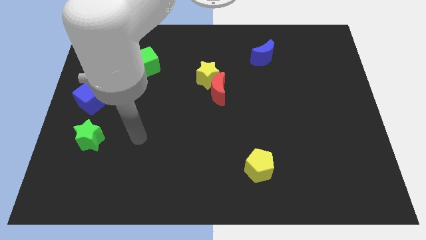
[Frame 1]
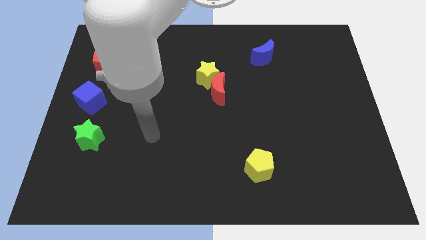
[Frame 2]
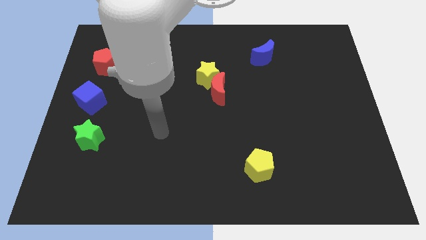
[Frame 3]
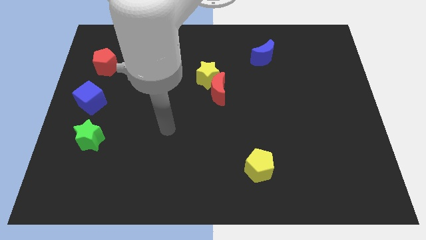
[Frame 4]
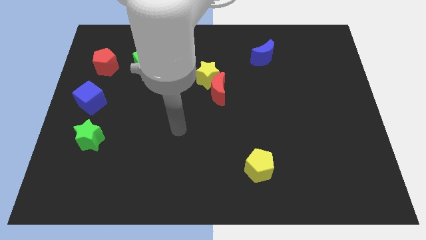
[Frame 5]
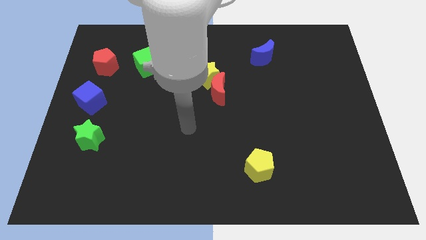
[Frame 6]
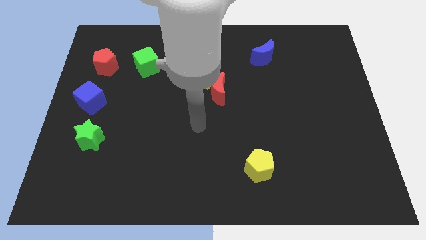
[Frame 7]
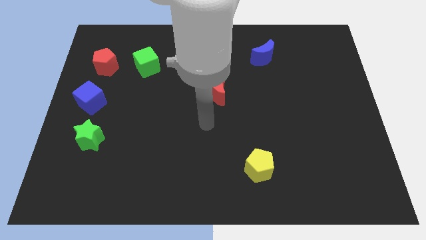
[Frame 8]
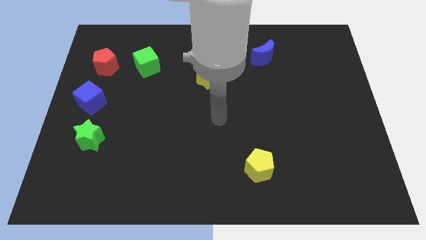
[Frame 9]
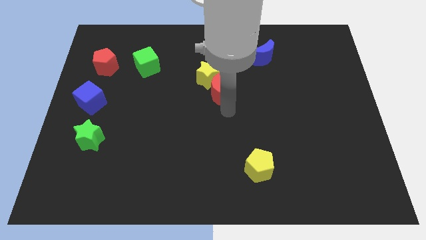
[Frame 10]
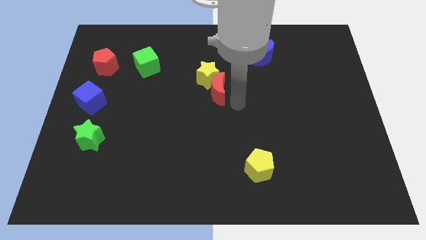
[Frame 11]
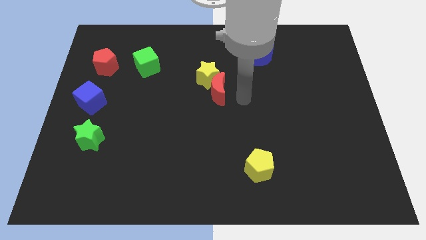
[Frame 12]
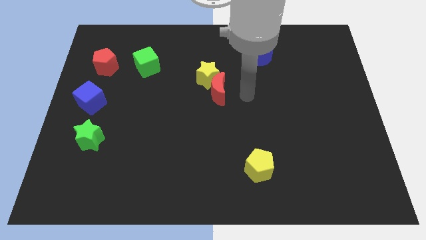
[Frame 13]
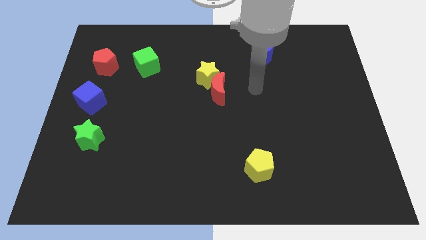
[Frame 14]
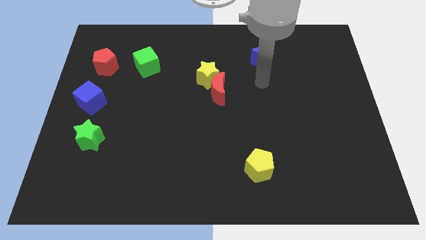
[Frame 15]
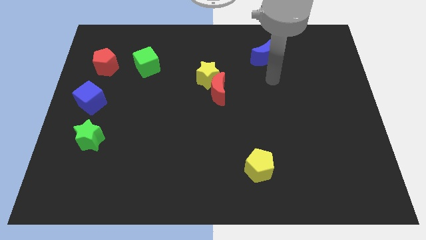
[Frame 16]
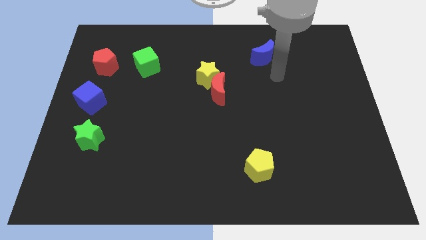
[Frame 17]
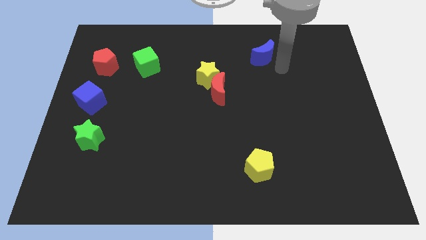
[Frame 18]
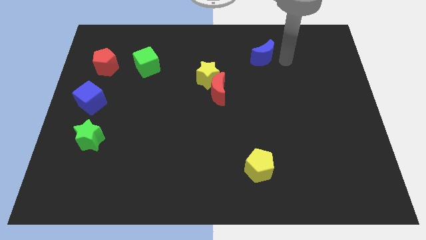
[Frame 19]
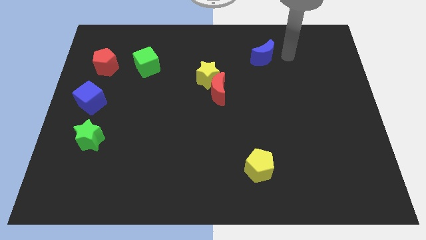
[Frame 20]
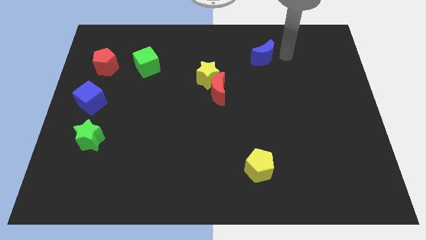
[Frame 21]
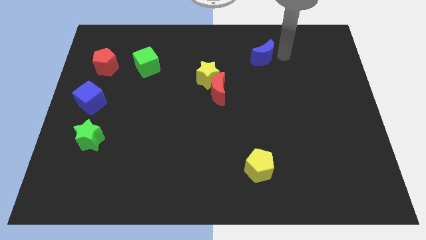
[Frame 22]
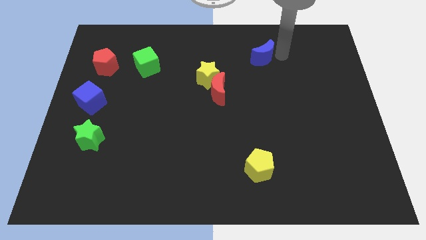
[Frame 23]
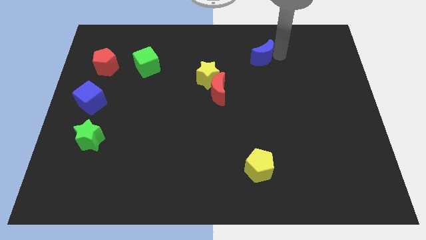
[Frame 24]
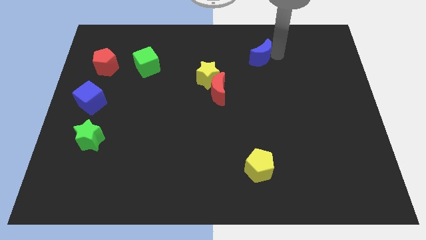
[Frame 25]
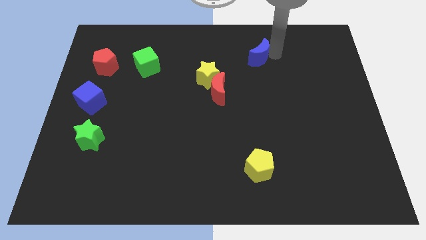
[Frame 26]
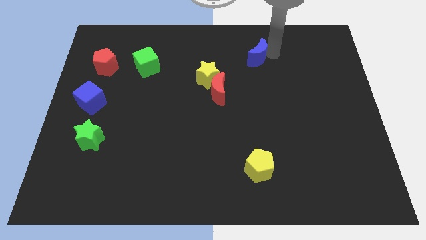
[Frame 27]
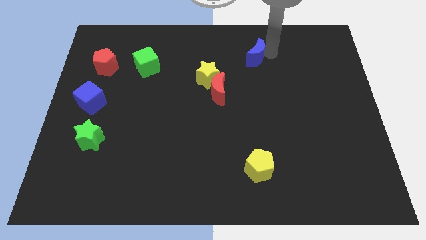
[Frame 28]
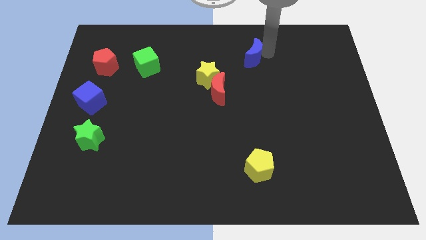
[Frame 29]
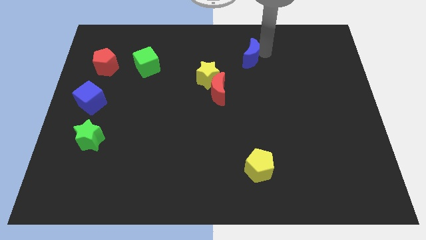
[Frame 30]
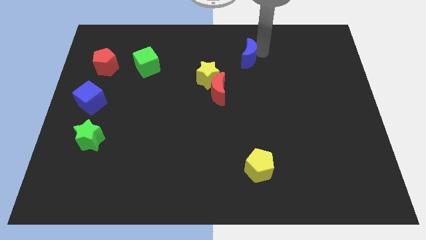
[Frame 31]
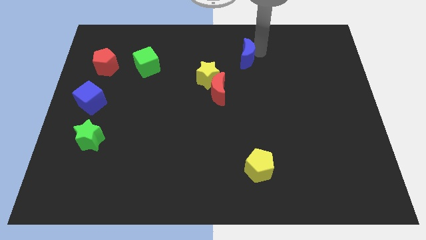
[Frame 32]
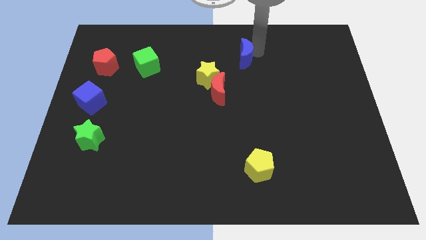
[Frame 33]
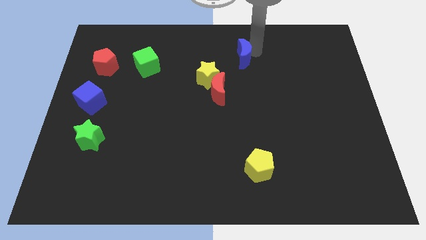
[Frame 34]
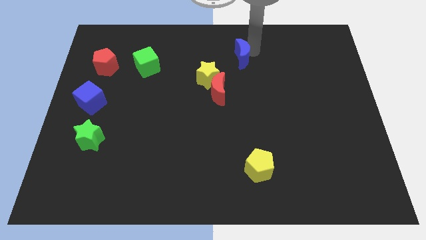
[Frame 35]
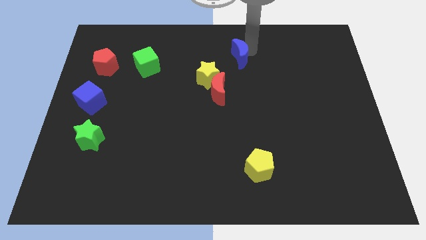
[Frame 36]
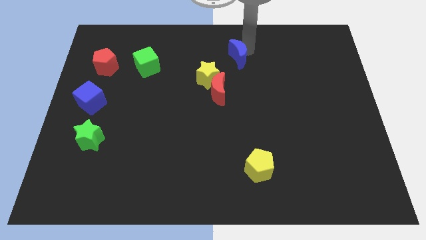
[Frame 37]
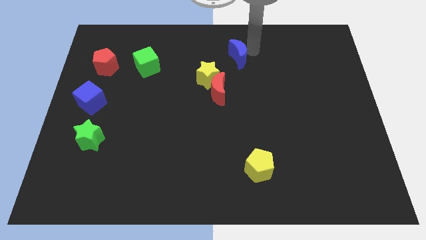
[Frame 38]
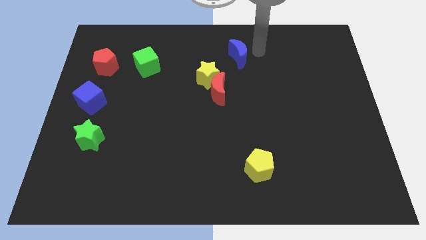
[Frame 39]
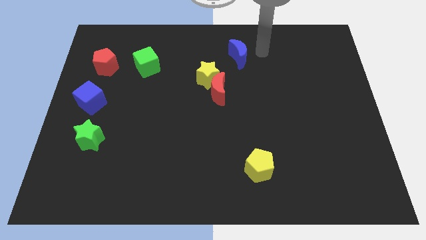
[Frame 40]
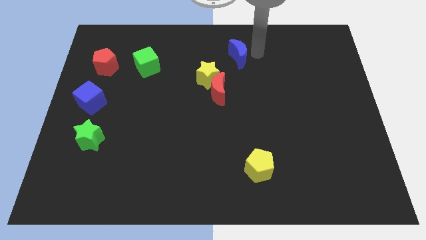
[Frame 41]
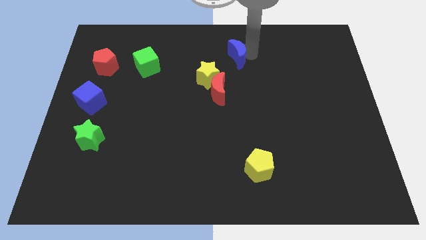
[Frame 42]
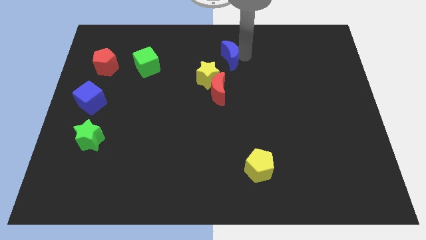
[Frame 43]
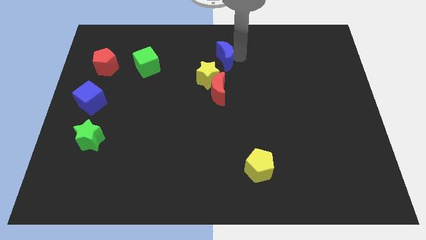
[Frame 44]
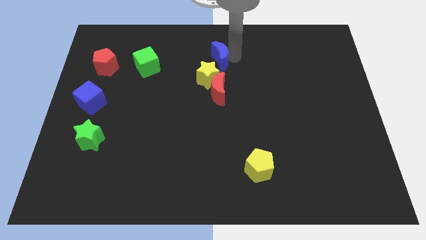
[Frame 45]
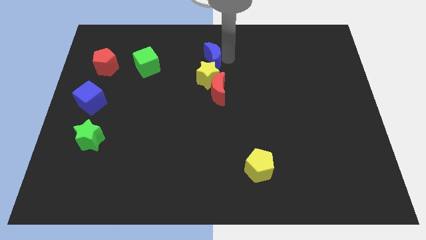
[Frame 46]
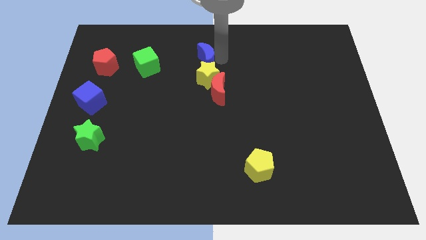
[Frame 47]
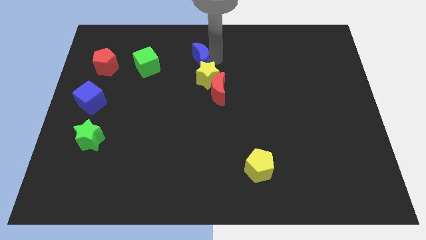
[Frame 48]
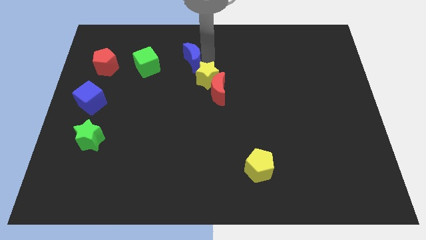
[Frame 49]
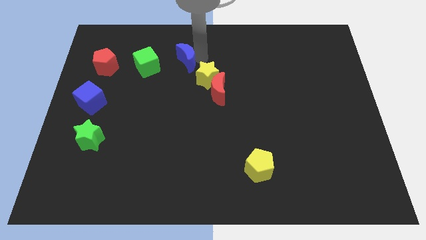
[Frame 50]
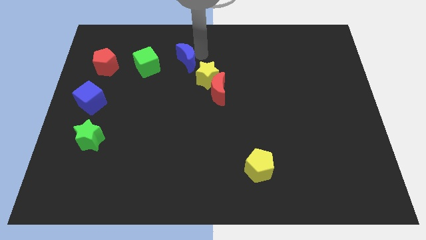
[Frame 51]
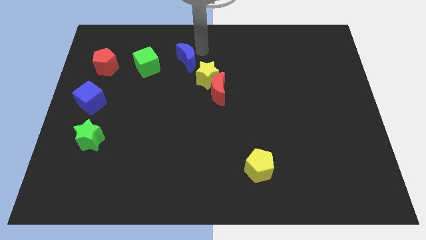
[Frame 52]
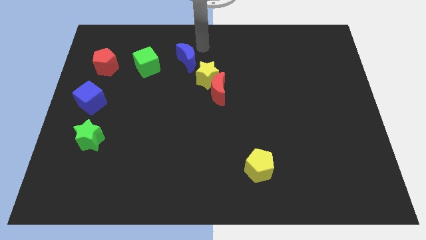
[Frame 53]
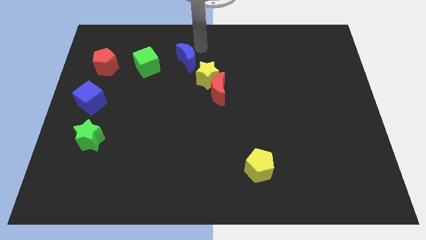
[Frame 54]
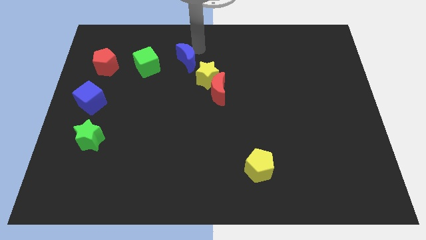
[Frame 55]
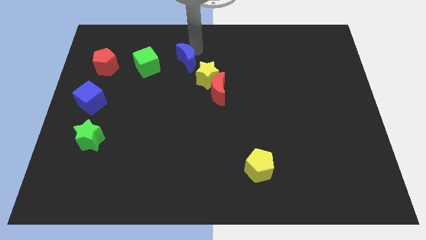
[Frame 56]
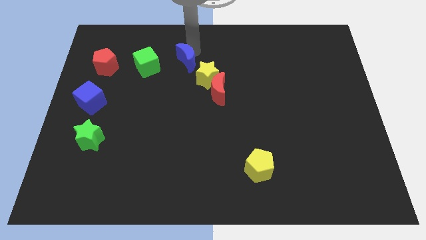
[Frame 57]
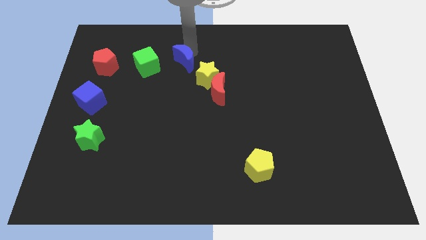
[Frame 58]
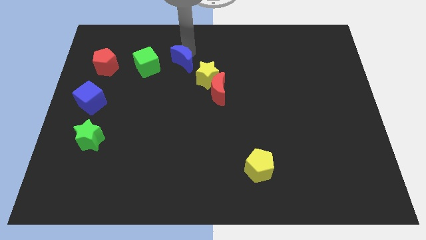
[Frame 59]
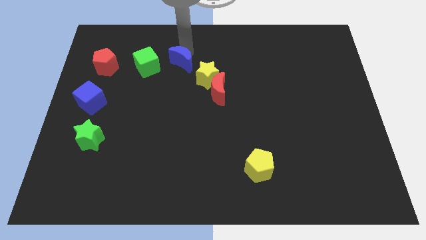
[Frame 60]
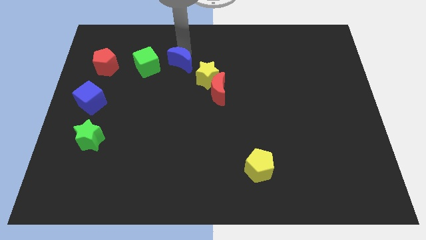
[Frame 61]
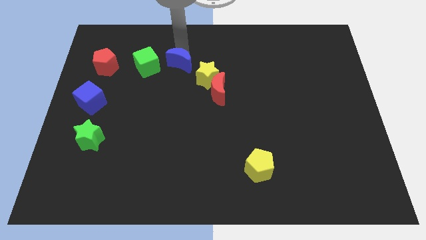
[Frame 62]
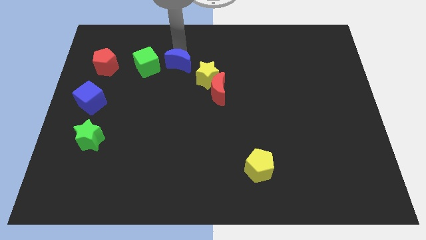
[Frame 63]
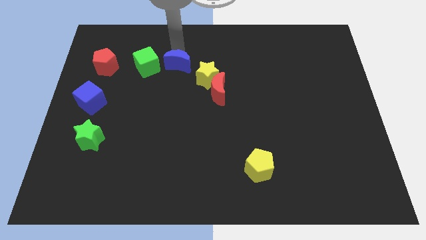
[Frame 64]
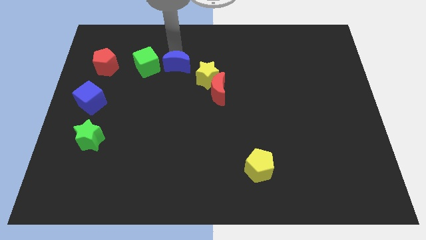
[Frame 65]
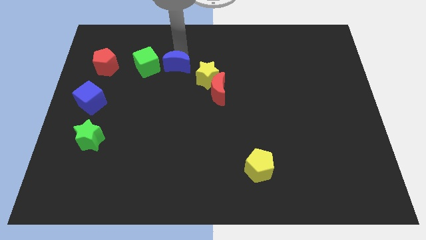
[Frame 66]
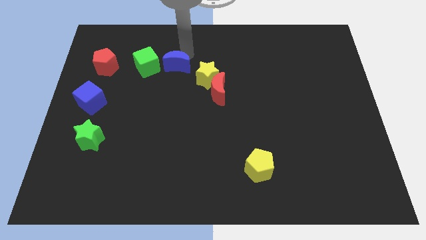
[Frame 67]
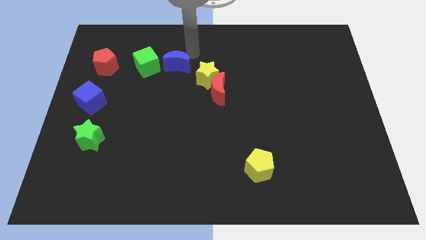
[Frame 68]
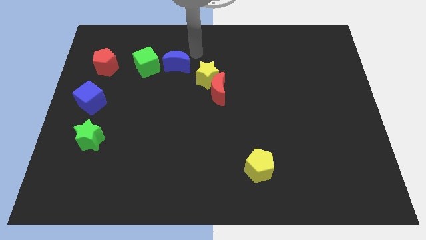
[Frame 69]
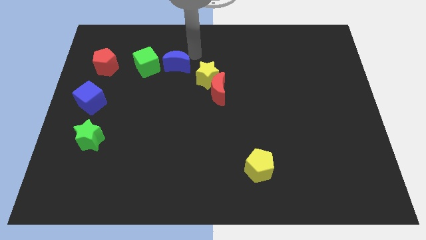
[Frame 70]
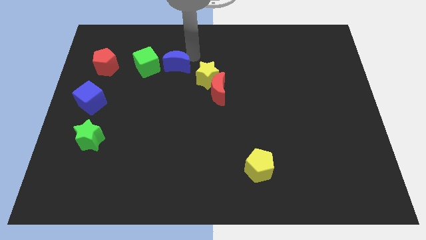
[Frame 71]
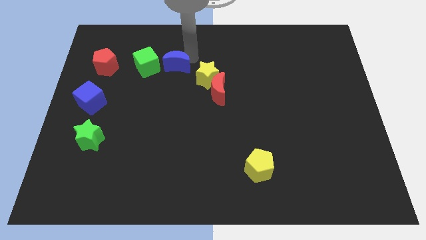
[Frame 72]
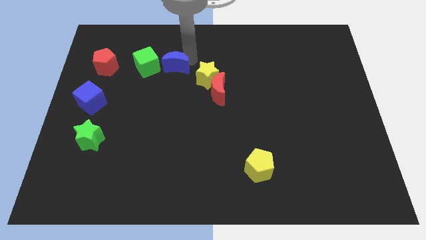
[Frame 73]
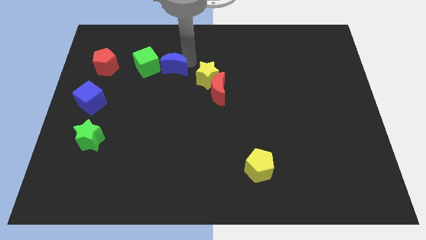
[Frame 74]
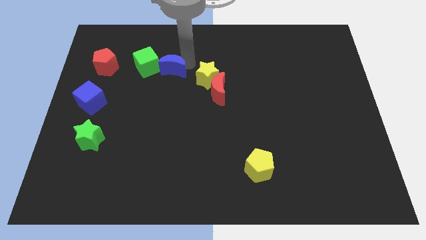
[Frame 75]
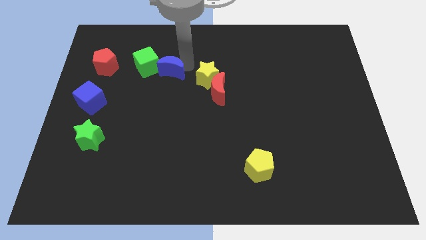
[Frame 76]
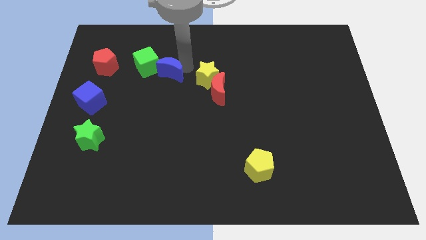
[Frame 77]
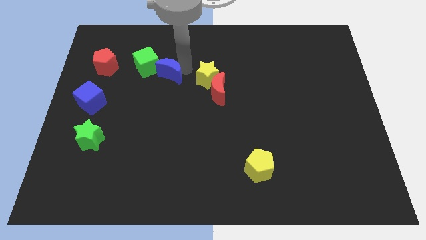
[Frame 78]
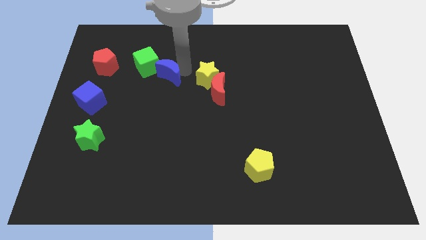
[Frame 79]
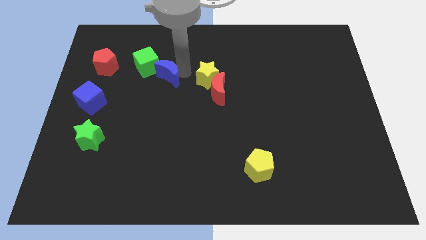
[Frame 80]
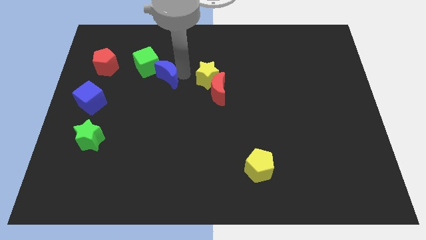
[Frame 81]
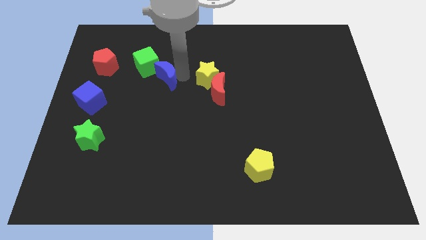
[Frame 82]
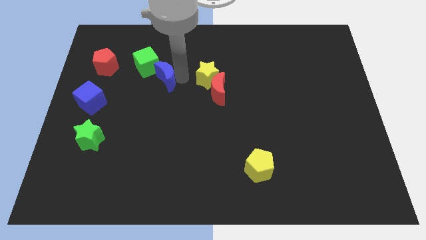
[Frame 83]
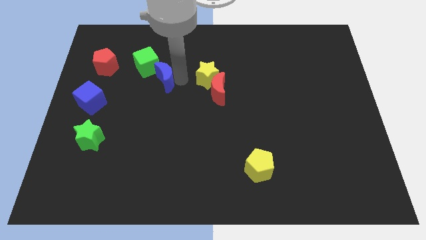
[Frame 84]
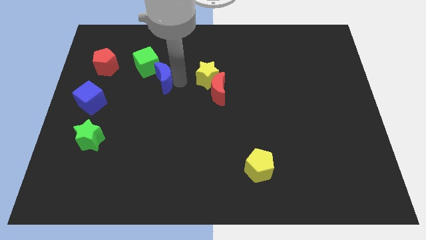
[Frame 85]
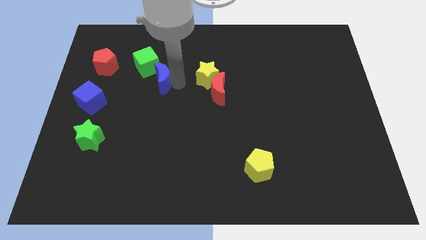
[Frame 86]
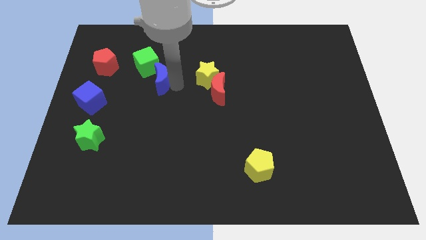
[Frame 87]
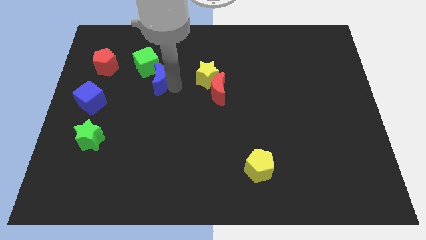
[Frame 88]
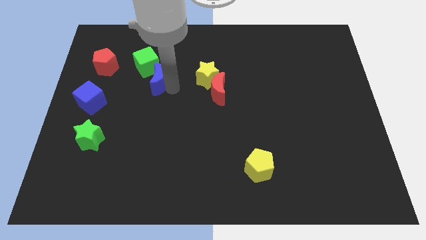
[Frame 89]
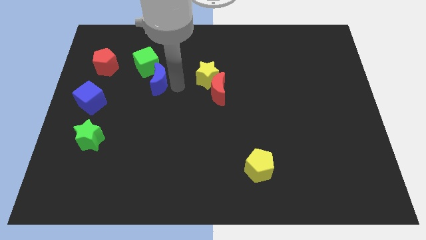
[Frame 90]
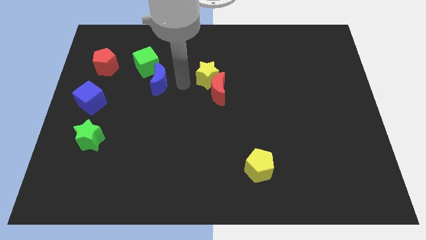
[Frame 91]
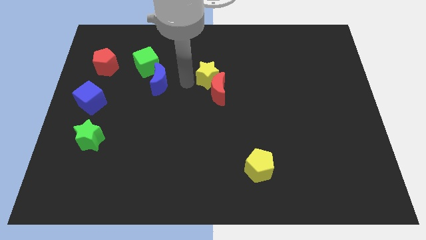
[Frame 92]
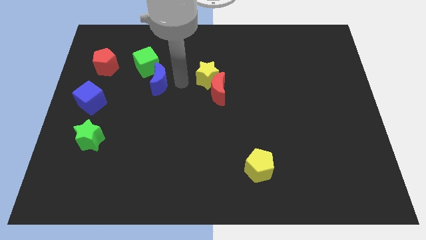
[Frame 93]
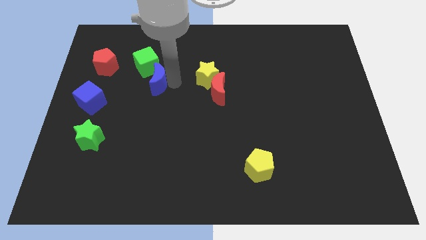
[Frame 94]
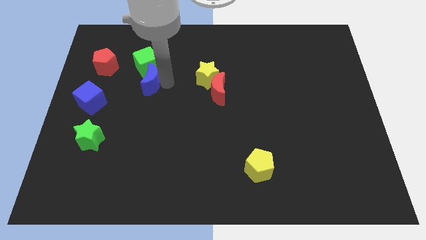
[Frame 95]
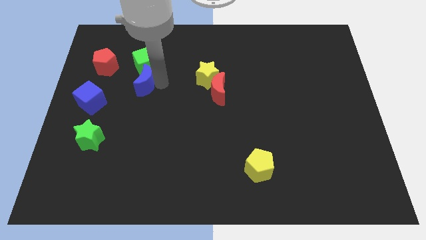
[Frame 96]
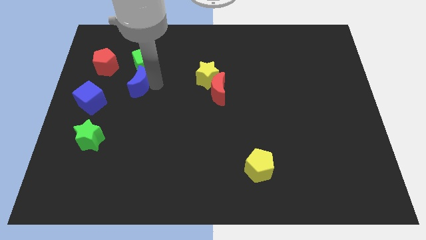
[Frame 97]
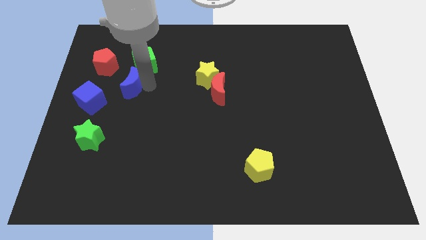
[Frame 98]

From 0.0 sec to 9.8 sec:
move the blue moon to the top right of the blue cube
